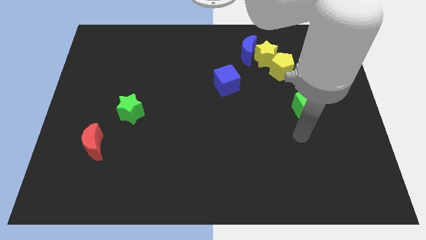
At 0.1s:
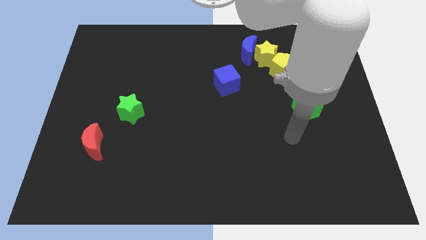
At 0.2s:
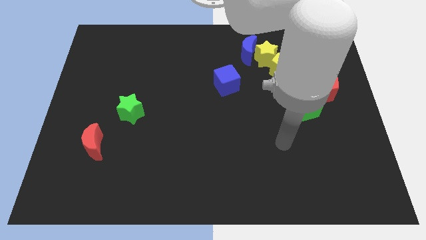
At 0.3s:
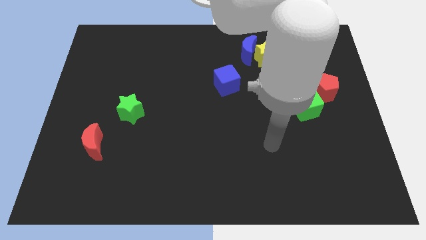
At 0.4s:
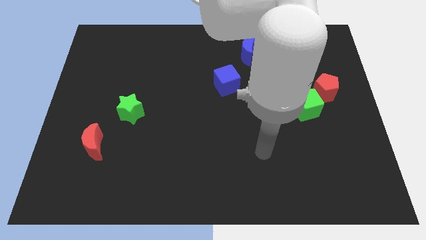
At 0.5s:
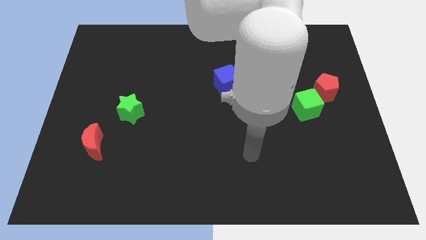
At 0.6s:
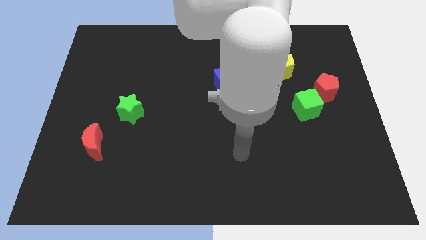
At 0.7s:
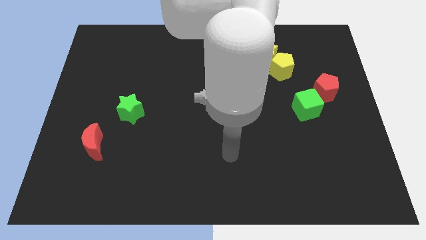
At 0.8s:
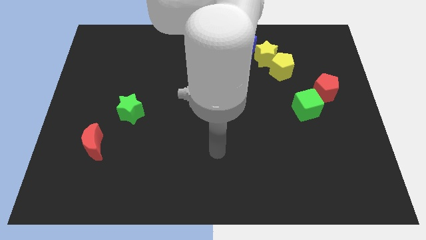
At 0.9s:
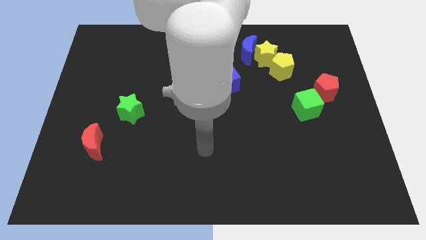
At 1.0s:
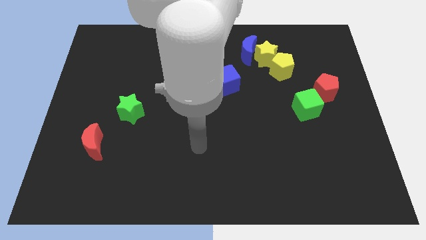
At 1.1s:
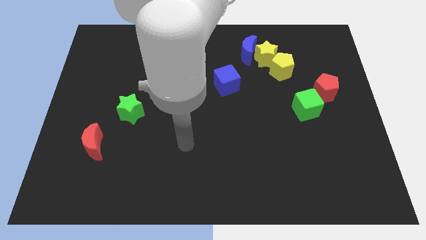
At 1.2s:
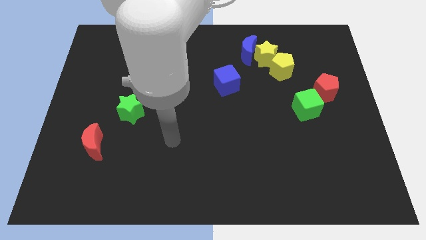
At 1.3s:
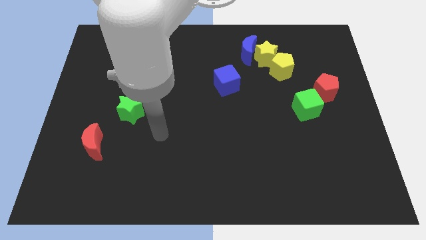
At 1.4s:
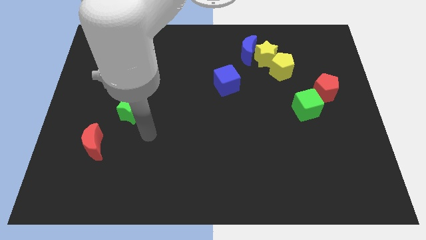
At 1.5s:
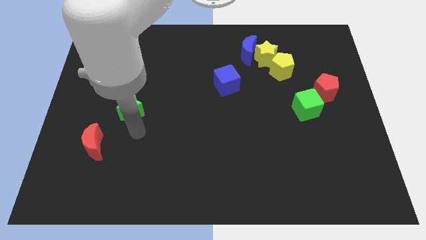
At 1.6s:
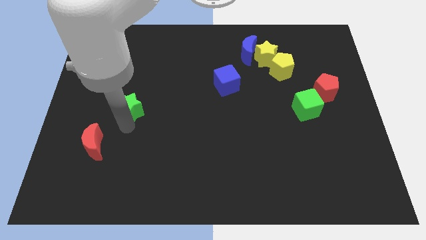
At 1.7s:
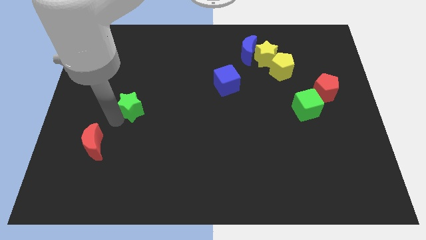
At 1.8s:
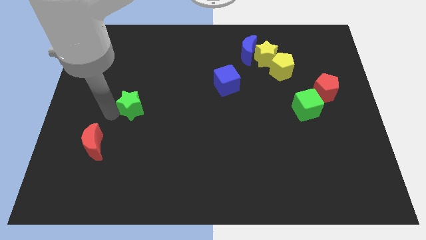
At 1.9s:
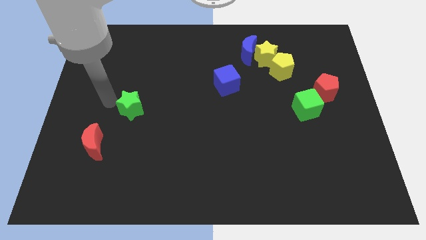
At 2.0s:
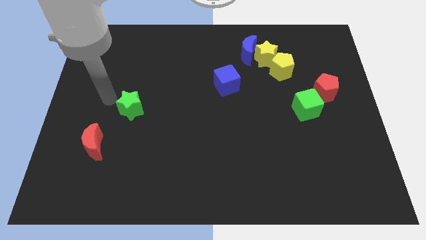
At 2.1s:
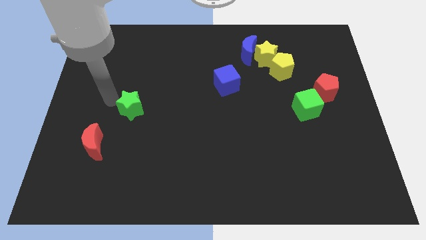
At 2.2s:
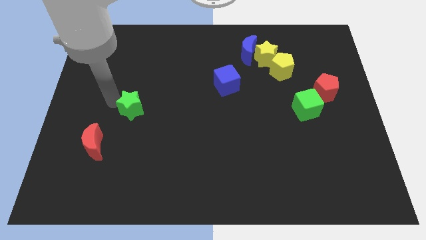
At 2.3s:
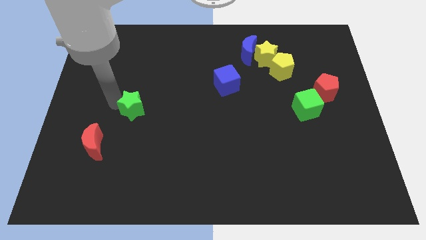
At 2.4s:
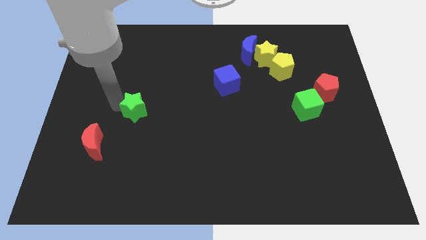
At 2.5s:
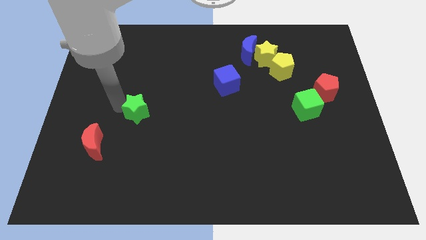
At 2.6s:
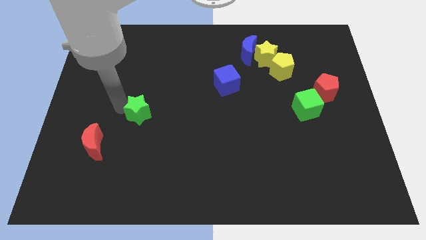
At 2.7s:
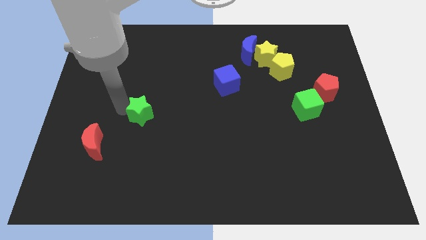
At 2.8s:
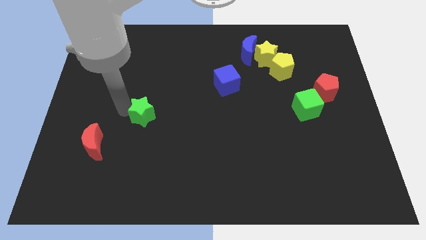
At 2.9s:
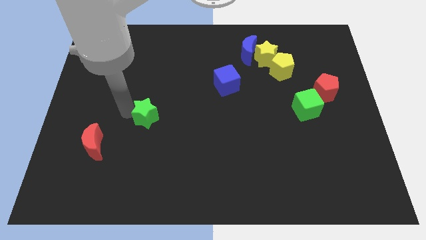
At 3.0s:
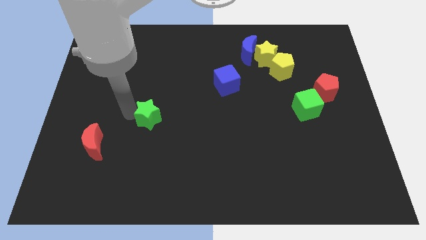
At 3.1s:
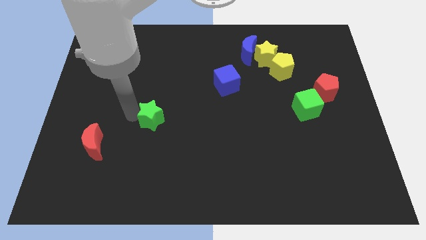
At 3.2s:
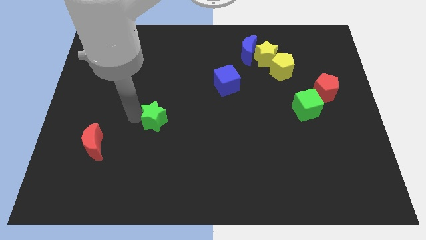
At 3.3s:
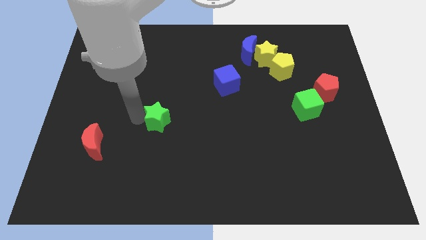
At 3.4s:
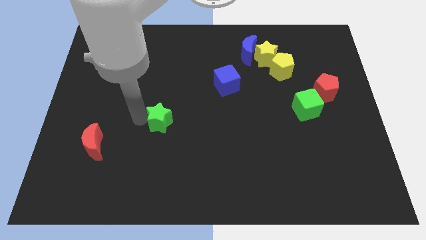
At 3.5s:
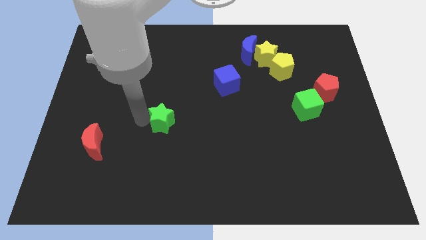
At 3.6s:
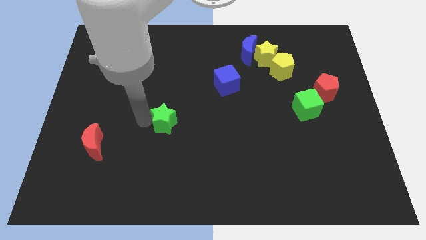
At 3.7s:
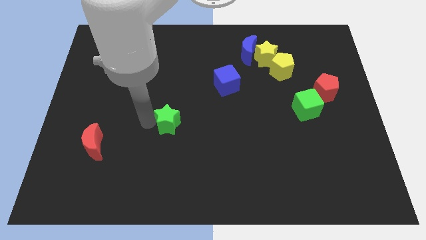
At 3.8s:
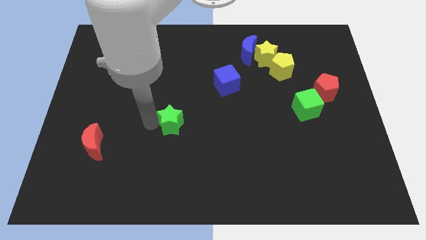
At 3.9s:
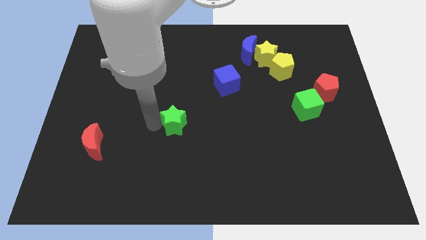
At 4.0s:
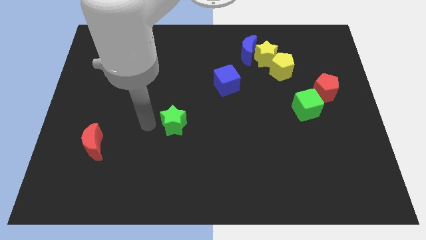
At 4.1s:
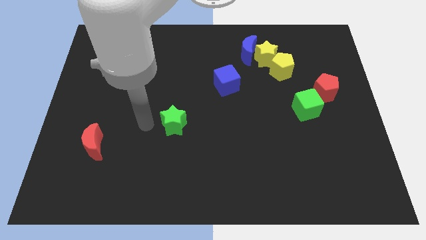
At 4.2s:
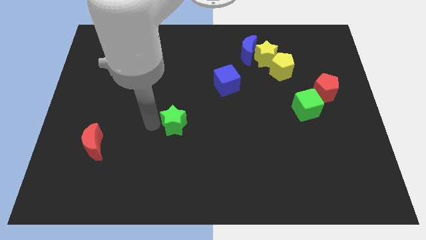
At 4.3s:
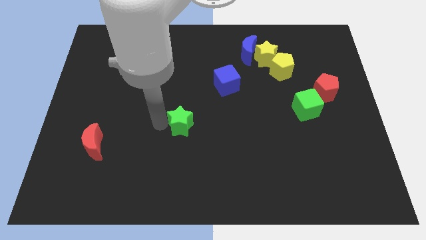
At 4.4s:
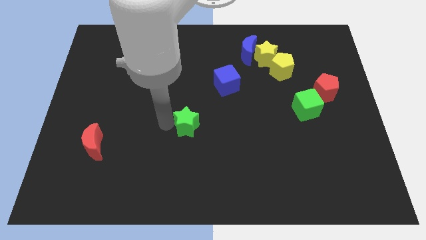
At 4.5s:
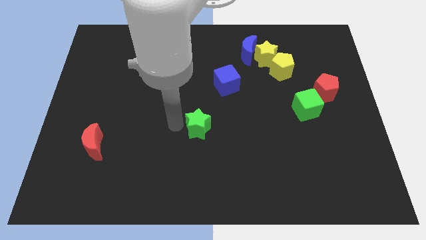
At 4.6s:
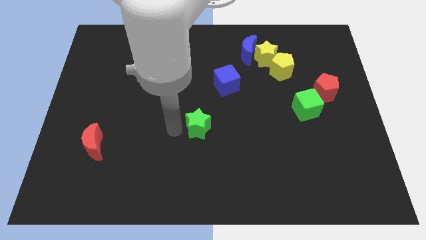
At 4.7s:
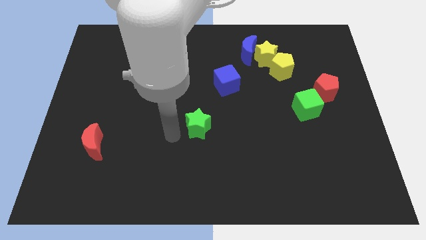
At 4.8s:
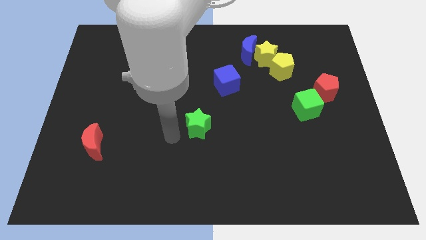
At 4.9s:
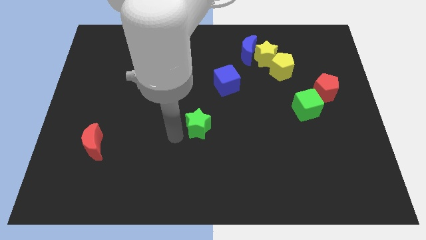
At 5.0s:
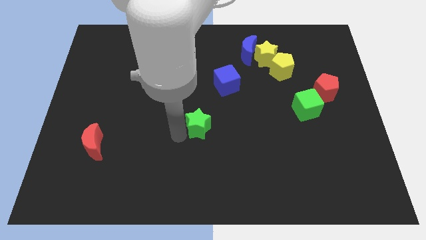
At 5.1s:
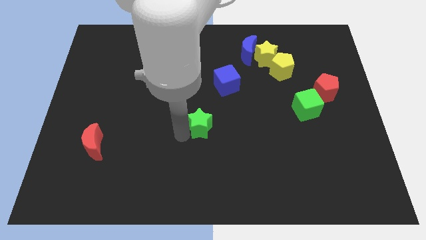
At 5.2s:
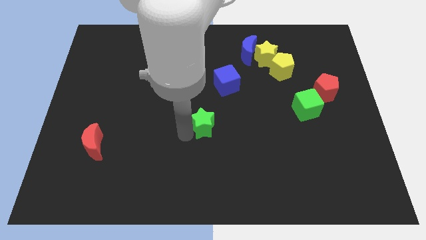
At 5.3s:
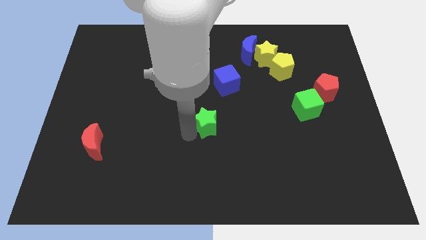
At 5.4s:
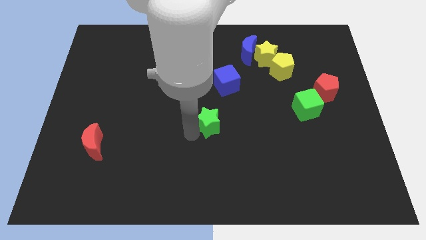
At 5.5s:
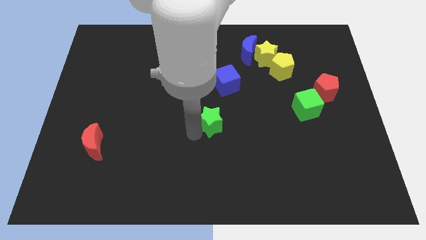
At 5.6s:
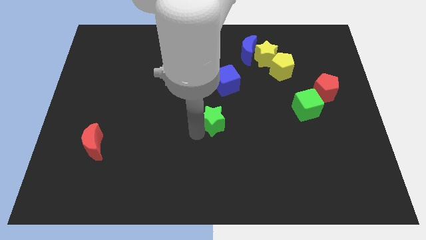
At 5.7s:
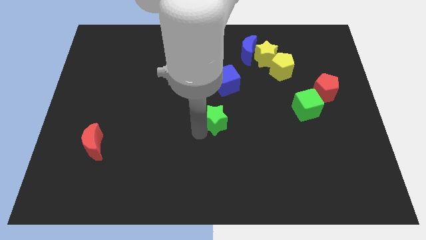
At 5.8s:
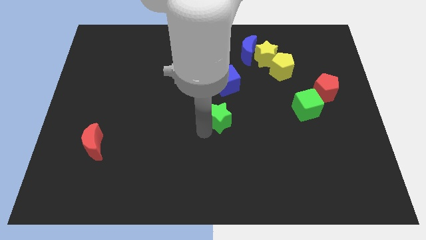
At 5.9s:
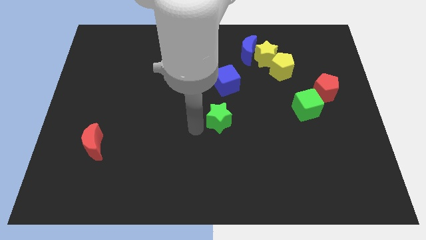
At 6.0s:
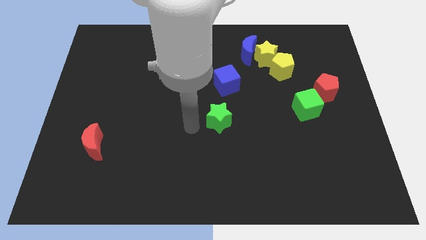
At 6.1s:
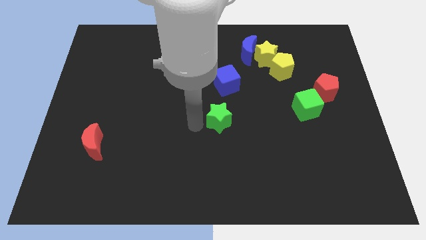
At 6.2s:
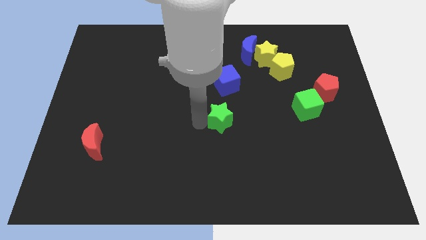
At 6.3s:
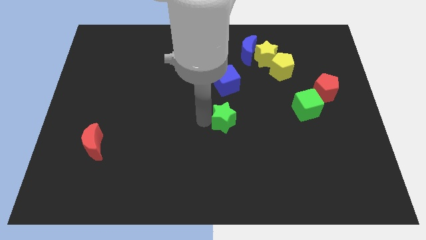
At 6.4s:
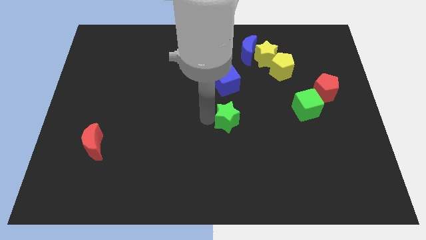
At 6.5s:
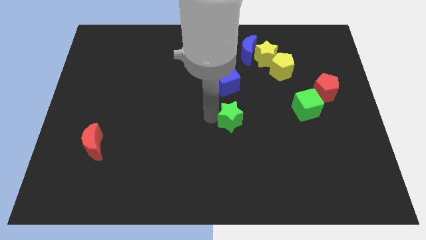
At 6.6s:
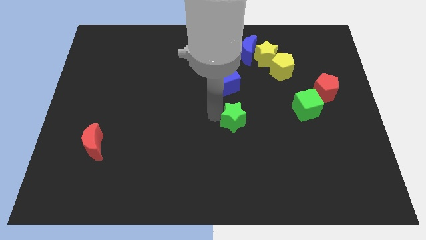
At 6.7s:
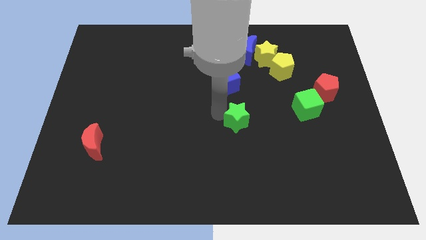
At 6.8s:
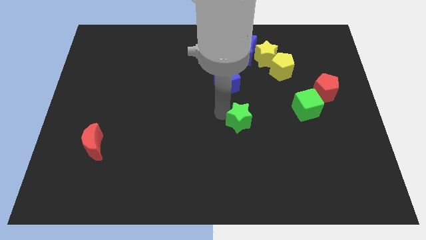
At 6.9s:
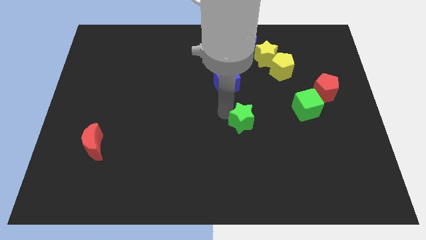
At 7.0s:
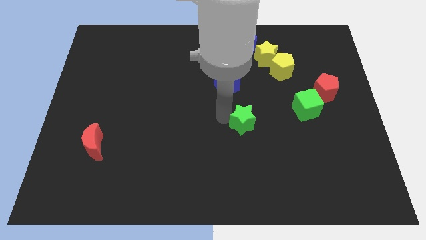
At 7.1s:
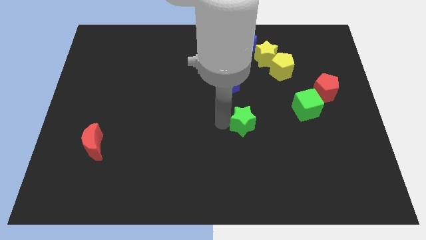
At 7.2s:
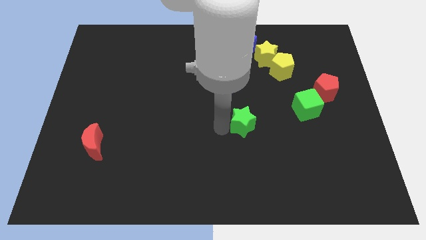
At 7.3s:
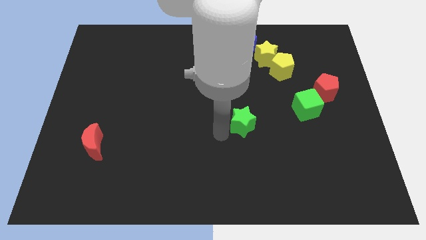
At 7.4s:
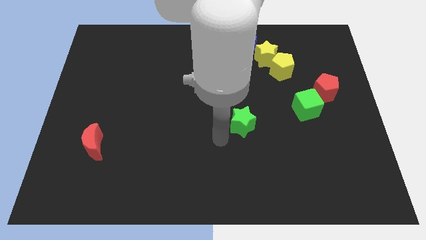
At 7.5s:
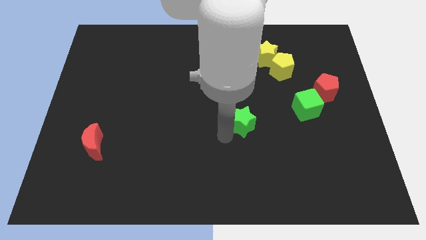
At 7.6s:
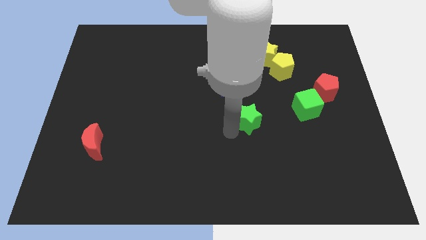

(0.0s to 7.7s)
slide the green star to the left of the green cube
